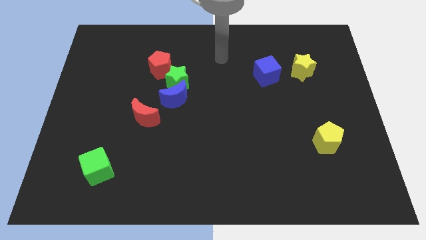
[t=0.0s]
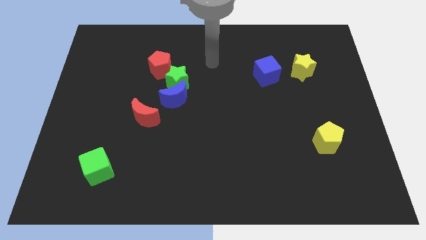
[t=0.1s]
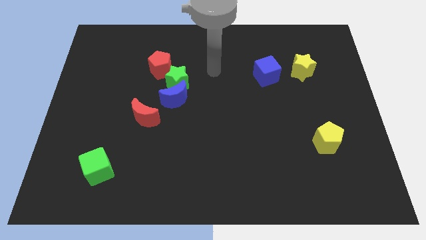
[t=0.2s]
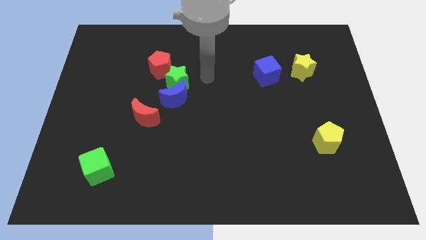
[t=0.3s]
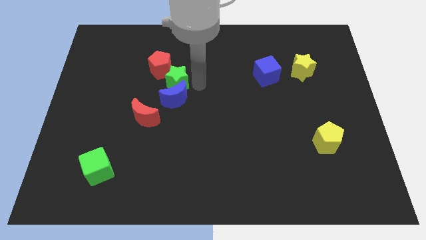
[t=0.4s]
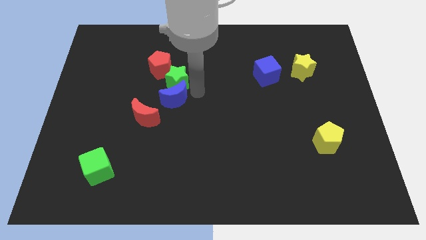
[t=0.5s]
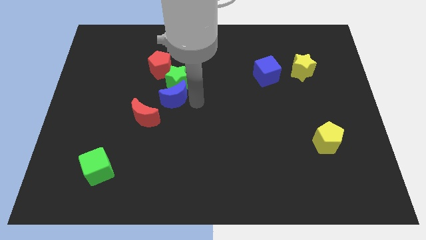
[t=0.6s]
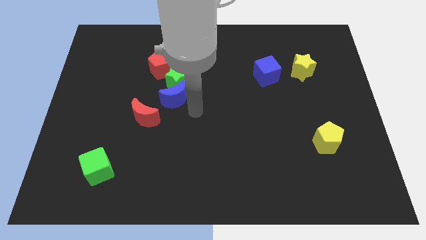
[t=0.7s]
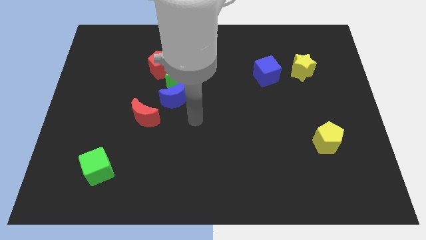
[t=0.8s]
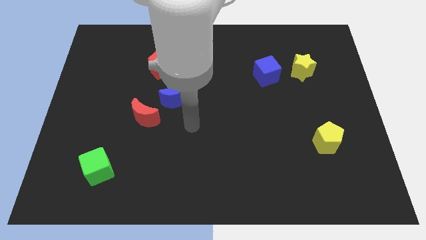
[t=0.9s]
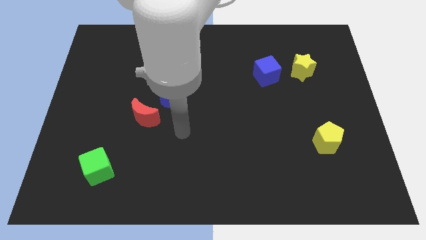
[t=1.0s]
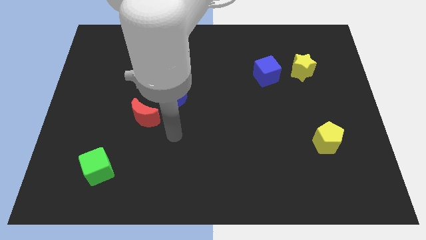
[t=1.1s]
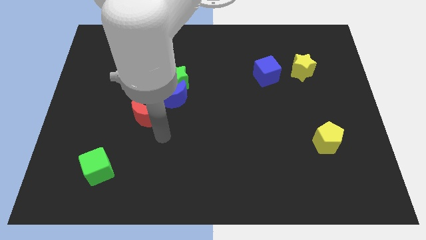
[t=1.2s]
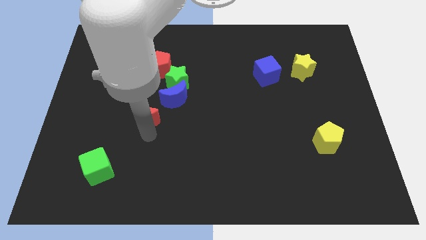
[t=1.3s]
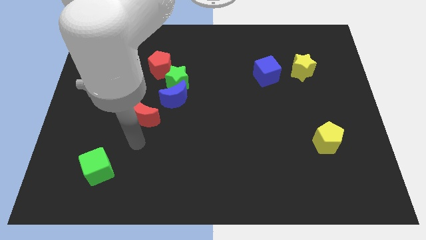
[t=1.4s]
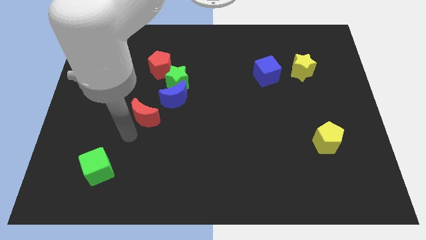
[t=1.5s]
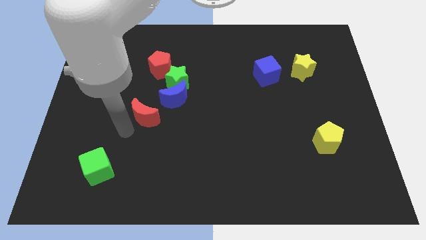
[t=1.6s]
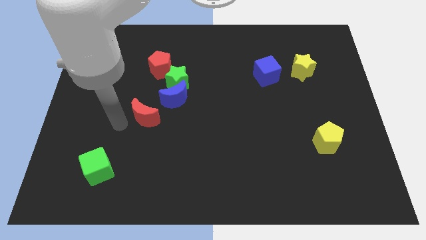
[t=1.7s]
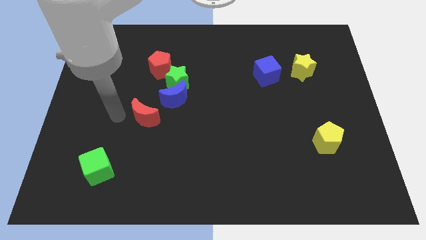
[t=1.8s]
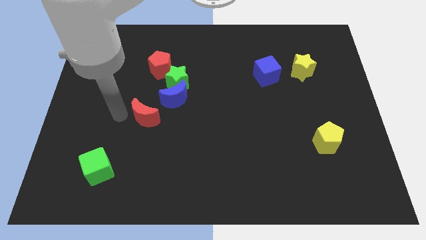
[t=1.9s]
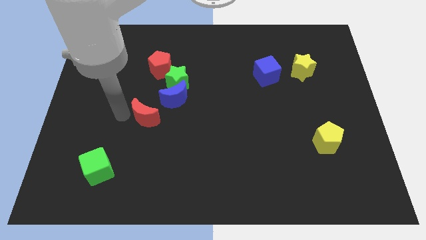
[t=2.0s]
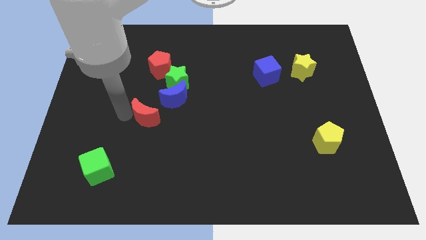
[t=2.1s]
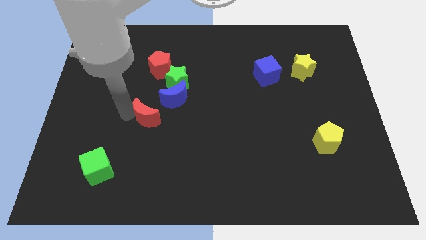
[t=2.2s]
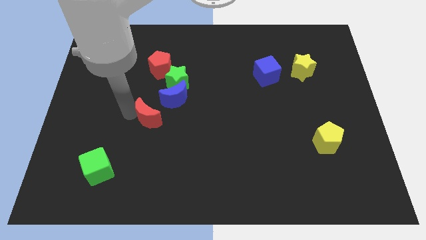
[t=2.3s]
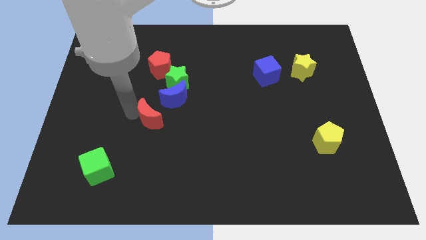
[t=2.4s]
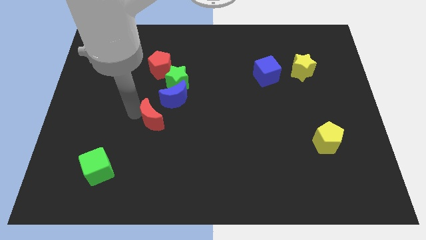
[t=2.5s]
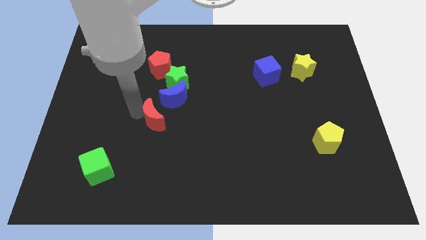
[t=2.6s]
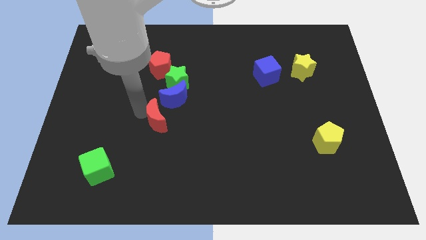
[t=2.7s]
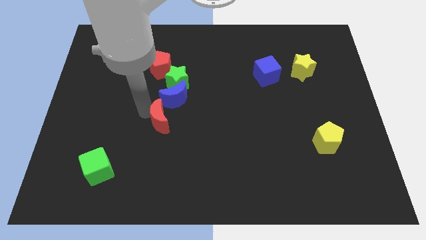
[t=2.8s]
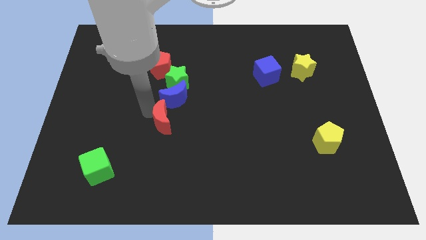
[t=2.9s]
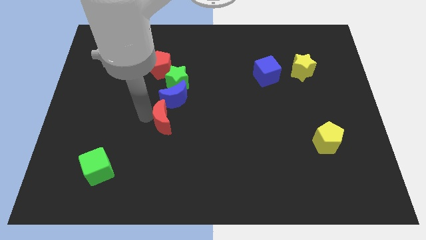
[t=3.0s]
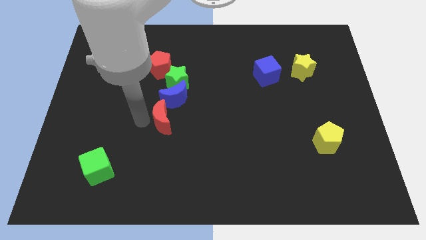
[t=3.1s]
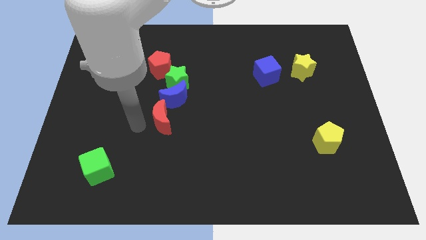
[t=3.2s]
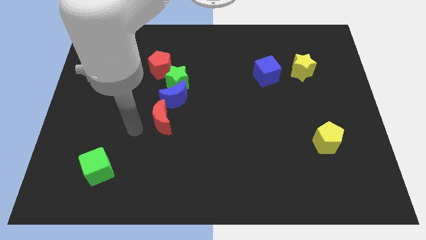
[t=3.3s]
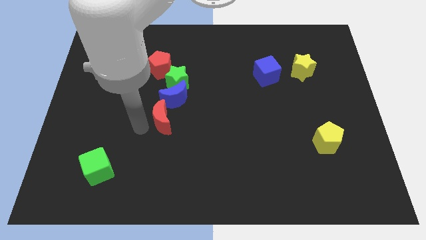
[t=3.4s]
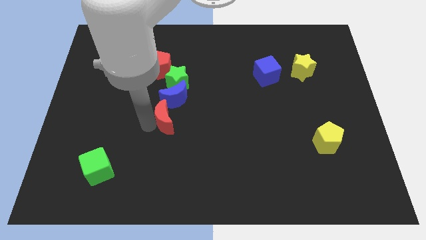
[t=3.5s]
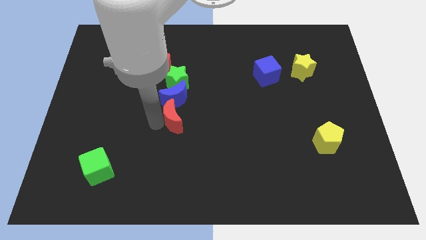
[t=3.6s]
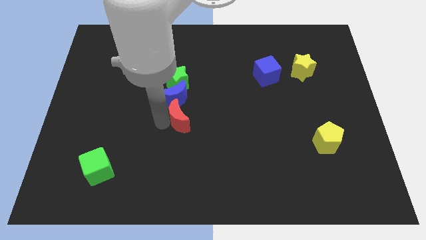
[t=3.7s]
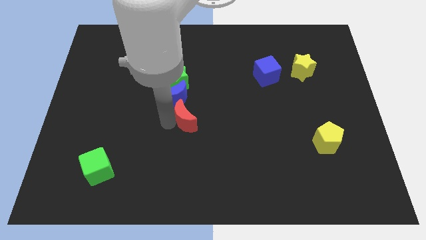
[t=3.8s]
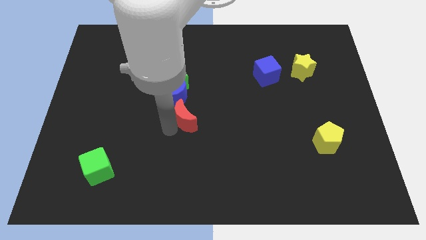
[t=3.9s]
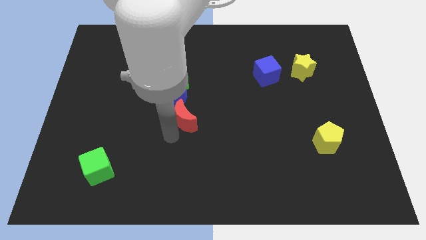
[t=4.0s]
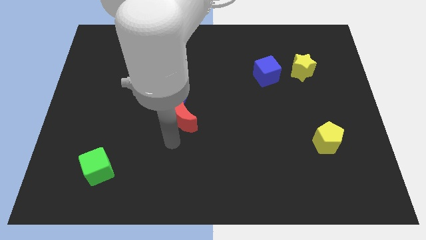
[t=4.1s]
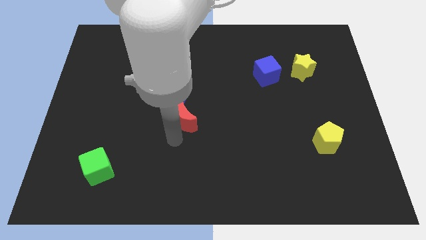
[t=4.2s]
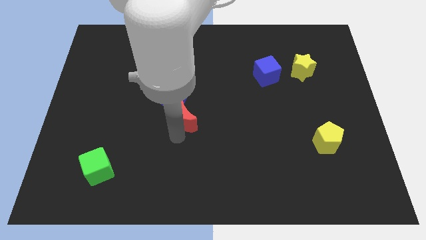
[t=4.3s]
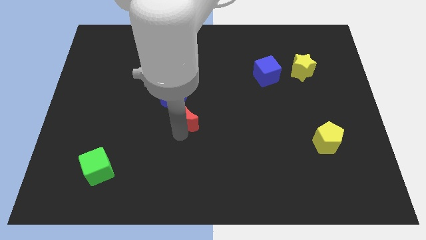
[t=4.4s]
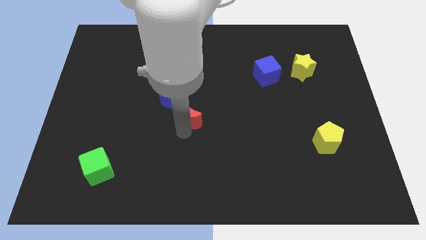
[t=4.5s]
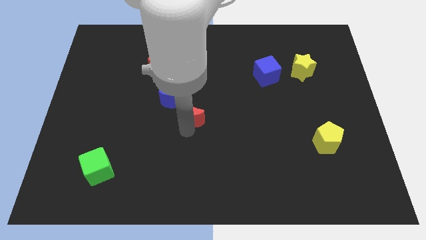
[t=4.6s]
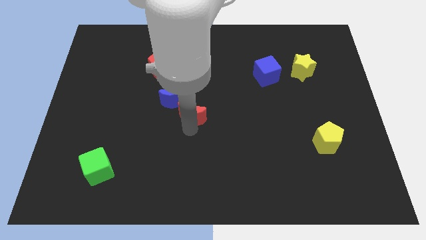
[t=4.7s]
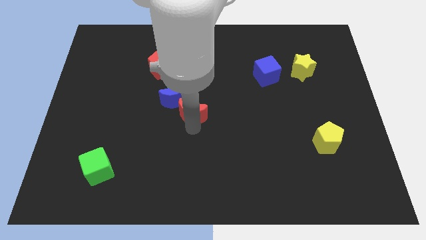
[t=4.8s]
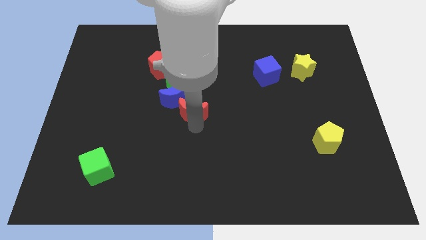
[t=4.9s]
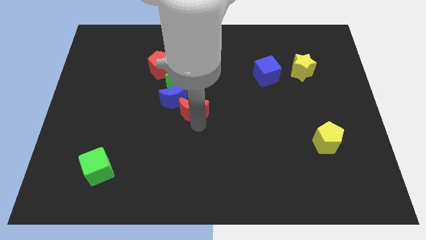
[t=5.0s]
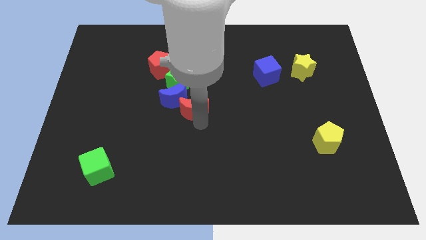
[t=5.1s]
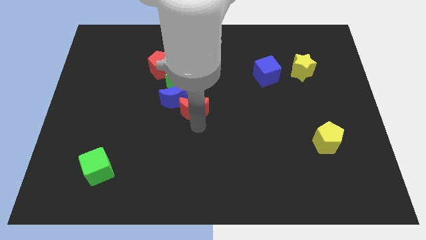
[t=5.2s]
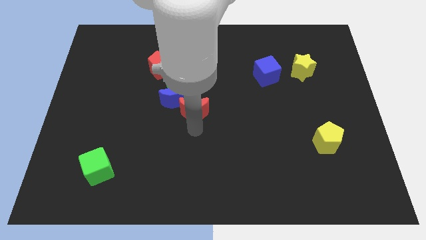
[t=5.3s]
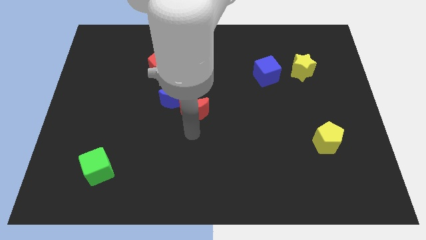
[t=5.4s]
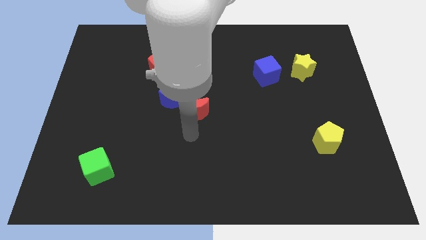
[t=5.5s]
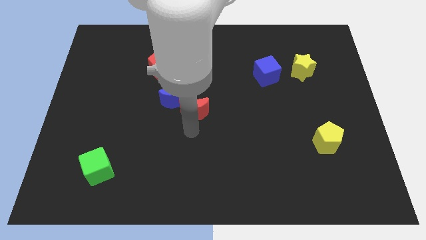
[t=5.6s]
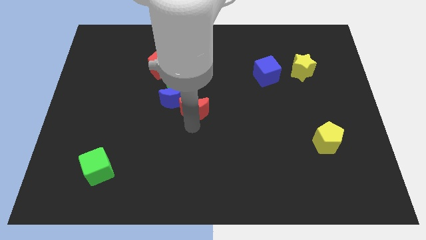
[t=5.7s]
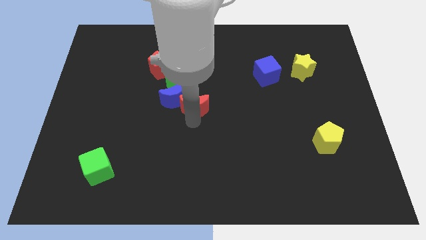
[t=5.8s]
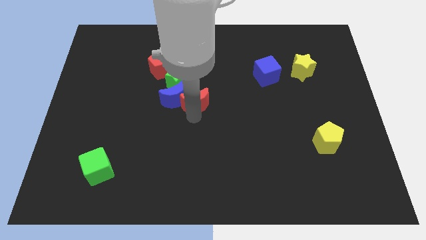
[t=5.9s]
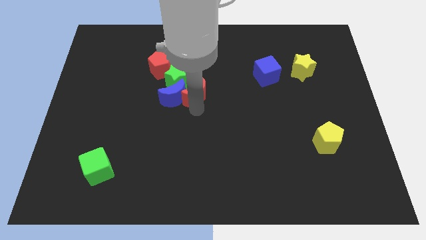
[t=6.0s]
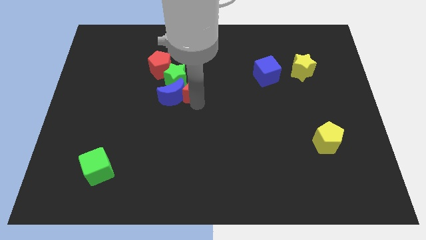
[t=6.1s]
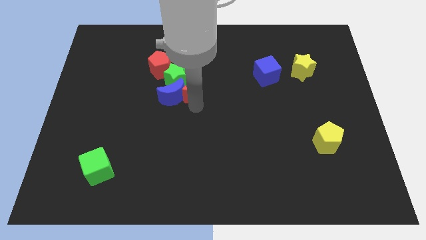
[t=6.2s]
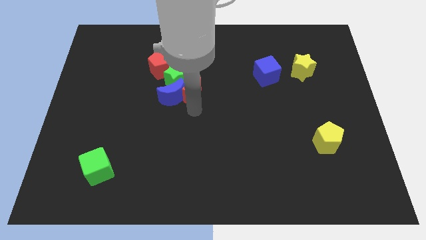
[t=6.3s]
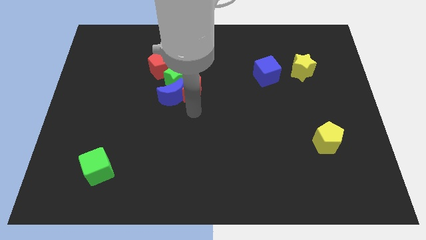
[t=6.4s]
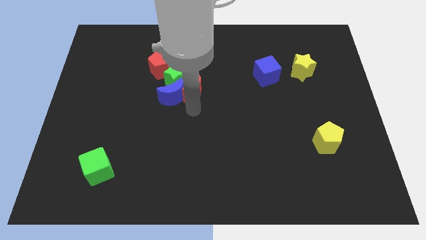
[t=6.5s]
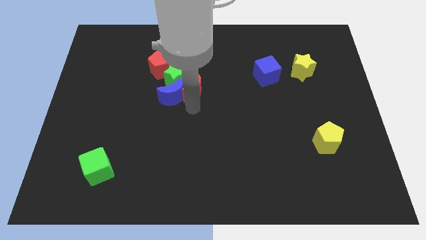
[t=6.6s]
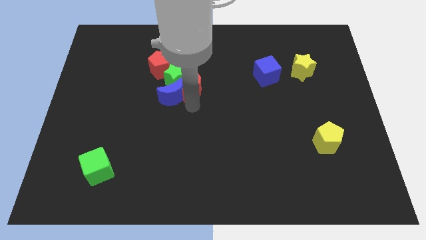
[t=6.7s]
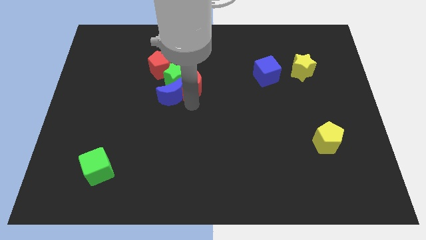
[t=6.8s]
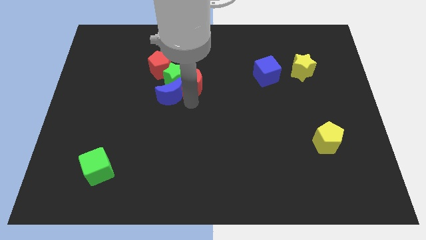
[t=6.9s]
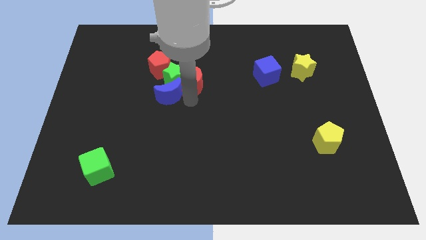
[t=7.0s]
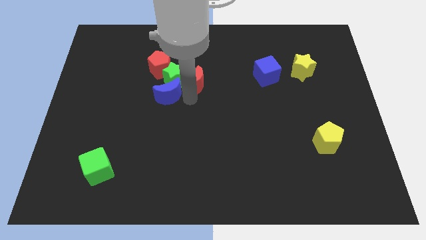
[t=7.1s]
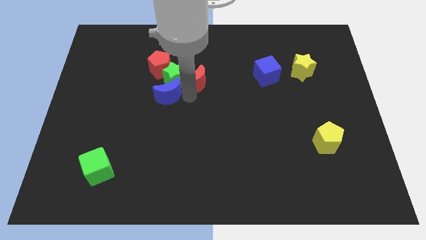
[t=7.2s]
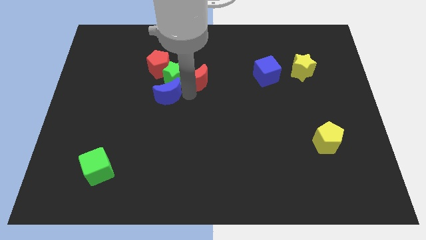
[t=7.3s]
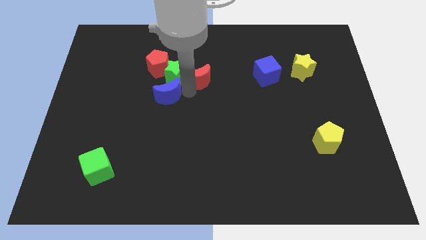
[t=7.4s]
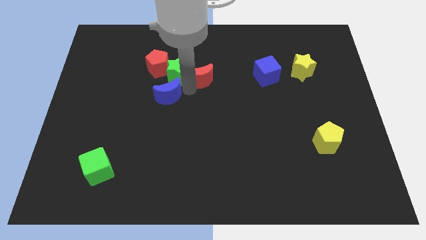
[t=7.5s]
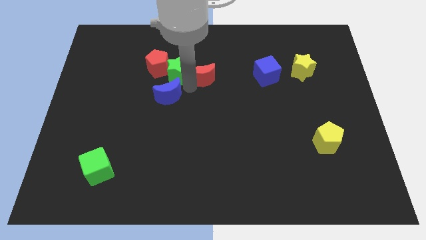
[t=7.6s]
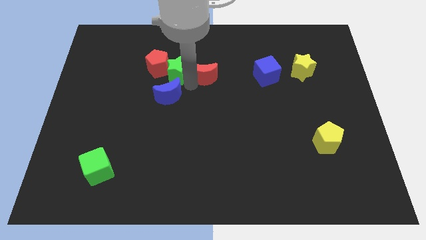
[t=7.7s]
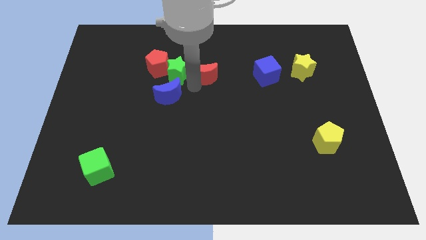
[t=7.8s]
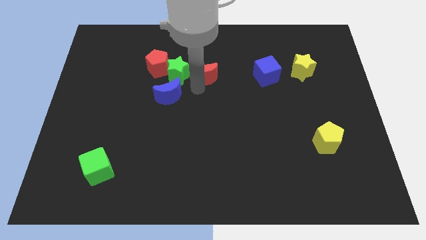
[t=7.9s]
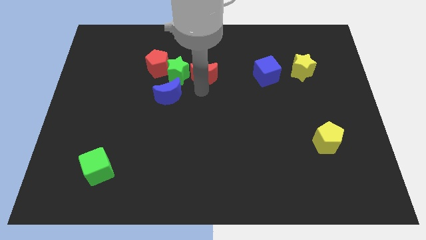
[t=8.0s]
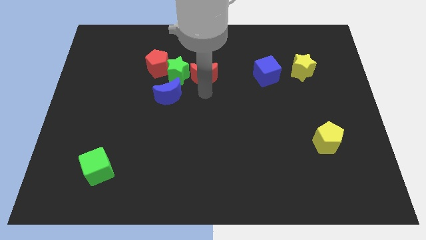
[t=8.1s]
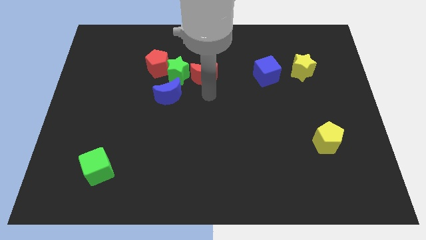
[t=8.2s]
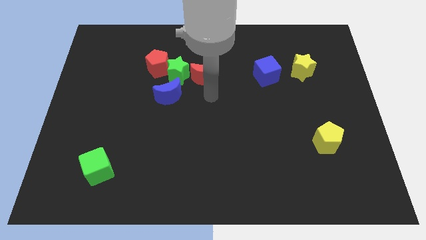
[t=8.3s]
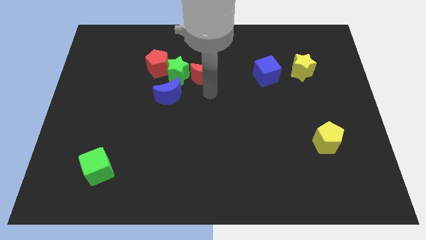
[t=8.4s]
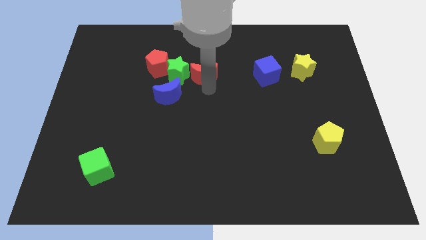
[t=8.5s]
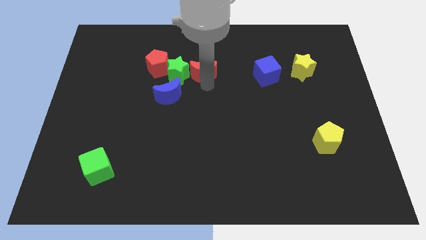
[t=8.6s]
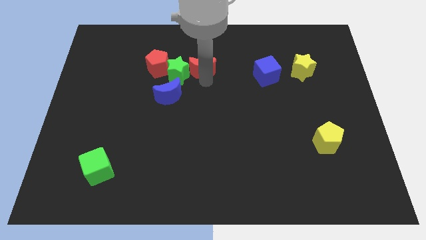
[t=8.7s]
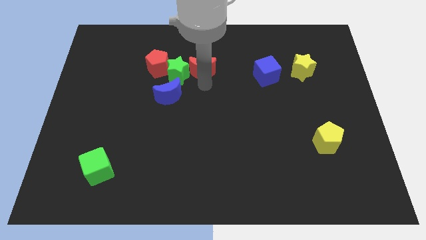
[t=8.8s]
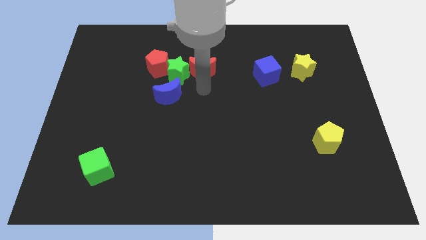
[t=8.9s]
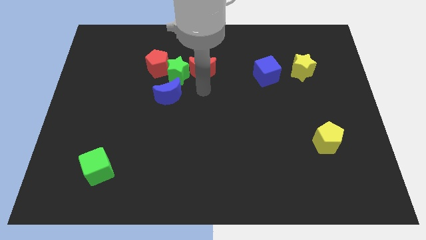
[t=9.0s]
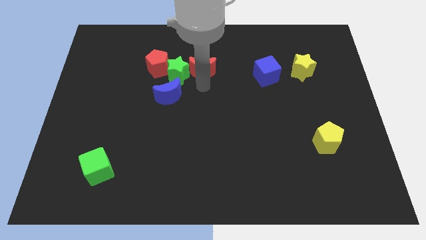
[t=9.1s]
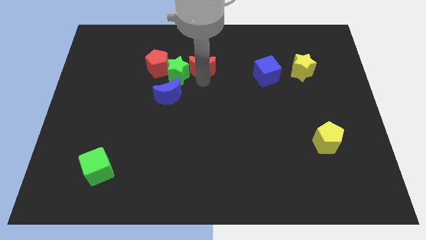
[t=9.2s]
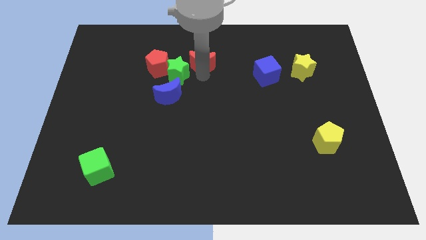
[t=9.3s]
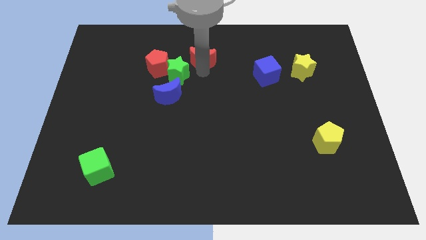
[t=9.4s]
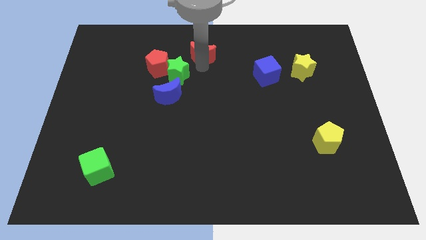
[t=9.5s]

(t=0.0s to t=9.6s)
slide the red moon to the top side
